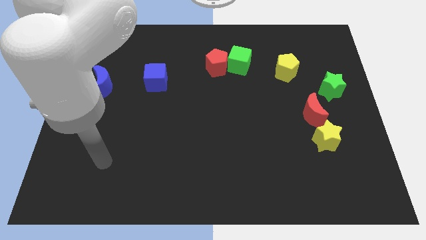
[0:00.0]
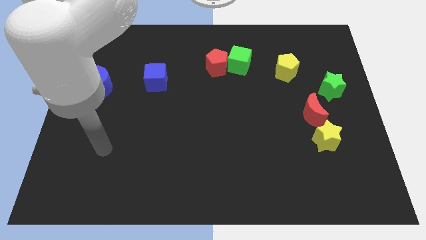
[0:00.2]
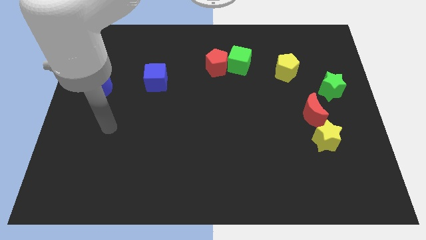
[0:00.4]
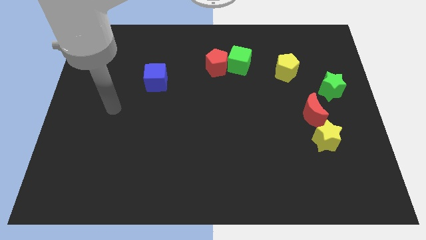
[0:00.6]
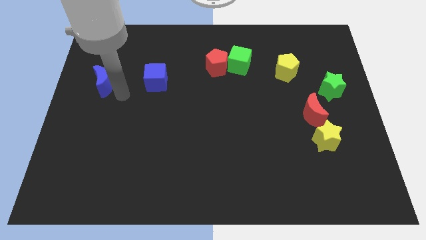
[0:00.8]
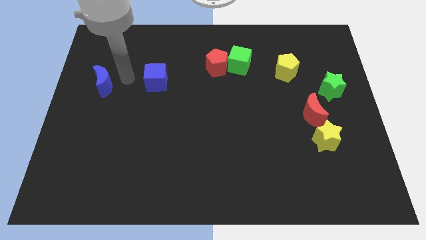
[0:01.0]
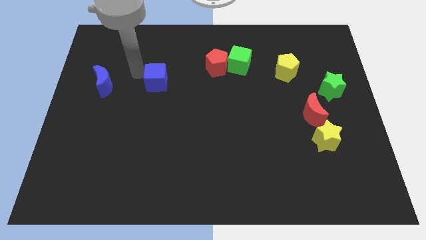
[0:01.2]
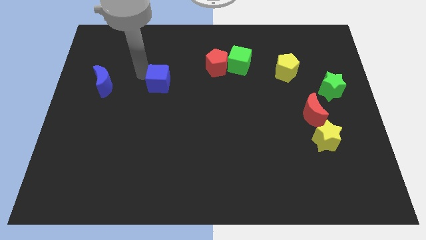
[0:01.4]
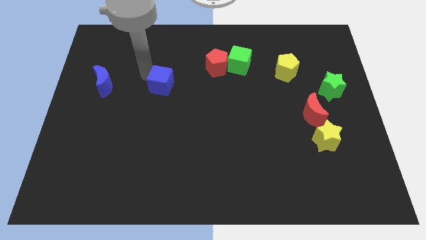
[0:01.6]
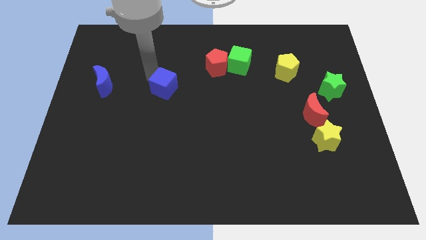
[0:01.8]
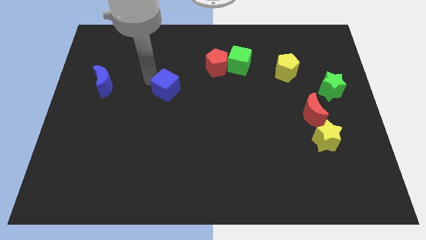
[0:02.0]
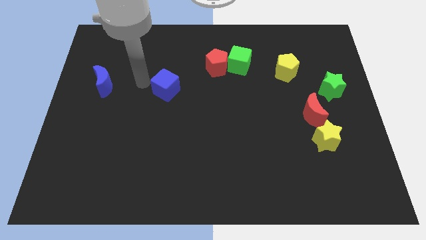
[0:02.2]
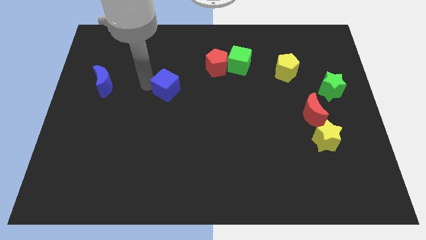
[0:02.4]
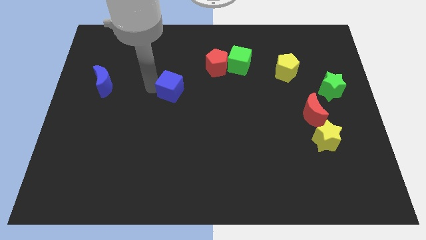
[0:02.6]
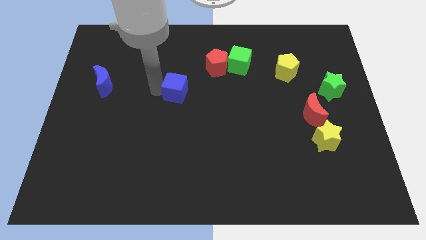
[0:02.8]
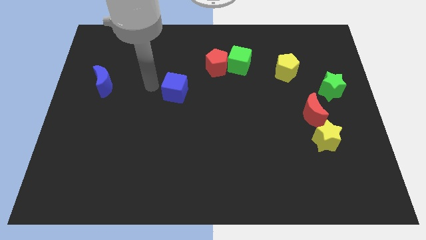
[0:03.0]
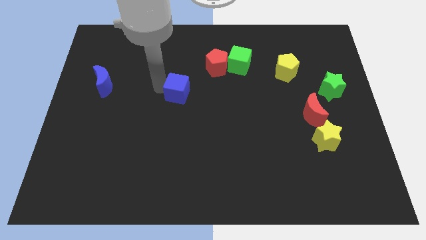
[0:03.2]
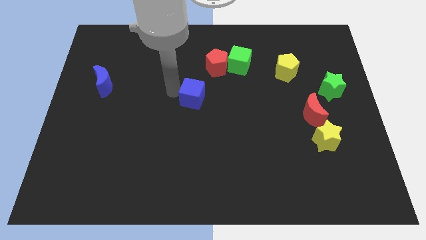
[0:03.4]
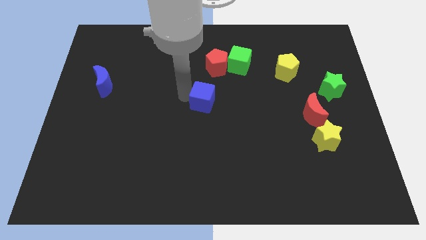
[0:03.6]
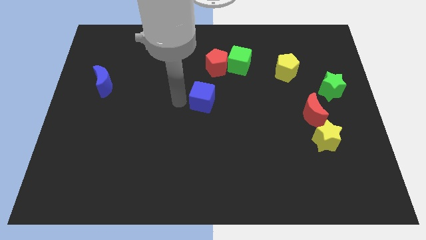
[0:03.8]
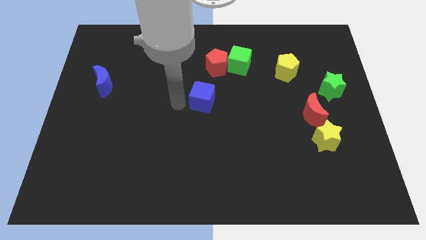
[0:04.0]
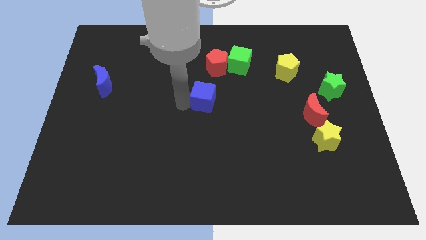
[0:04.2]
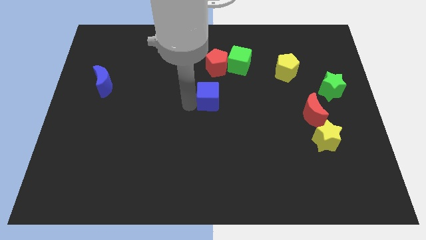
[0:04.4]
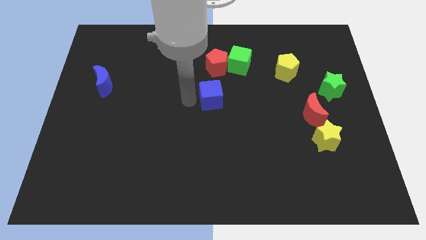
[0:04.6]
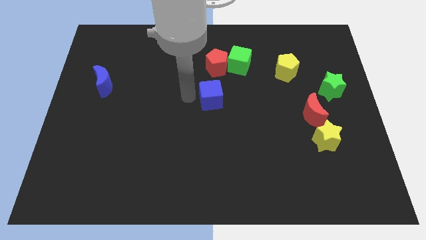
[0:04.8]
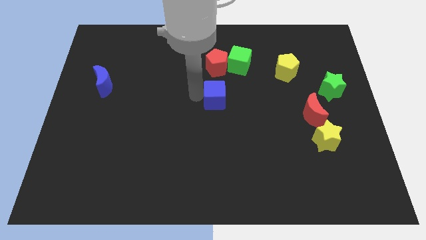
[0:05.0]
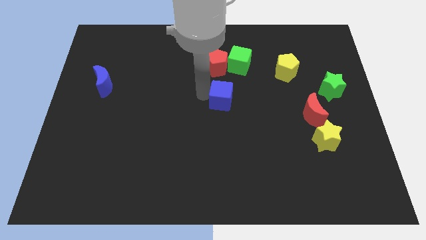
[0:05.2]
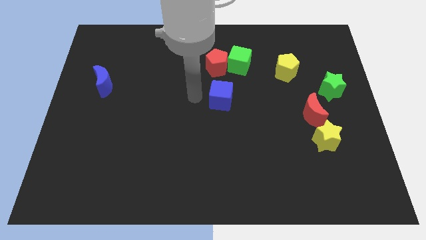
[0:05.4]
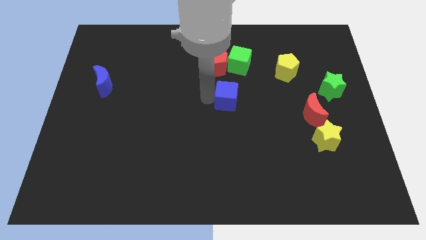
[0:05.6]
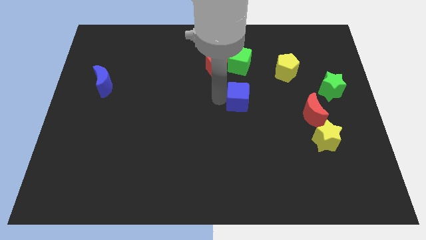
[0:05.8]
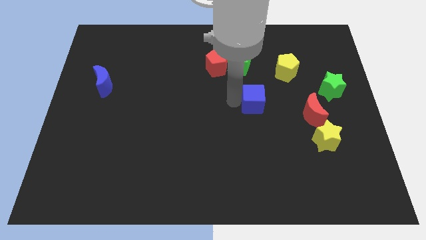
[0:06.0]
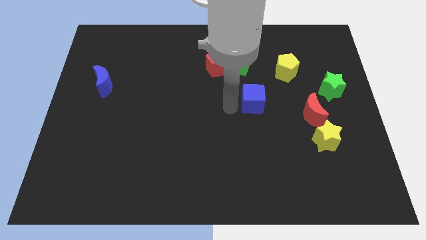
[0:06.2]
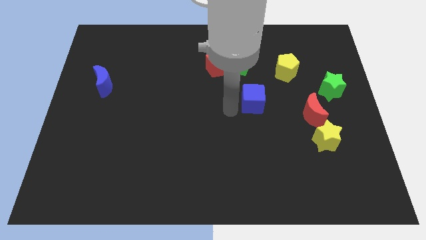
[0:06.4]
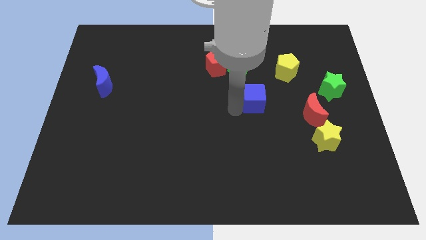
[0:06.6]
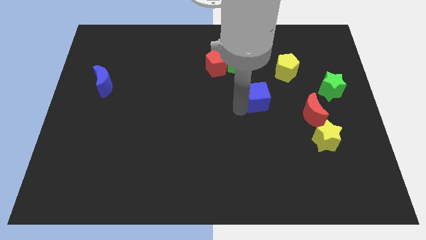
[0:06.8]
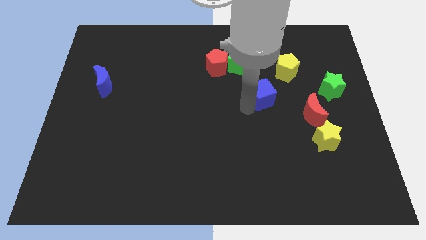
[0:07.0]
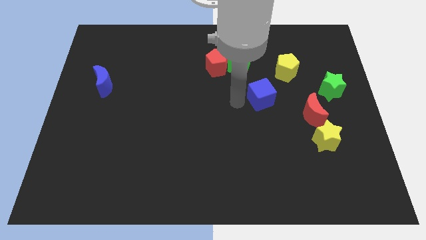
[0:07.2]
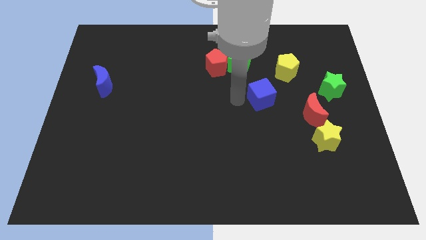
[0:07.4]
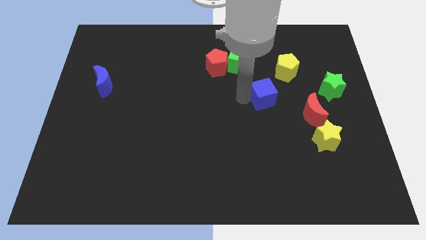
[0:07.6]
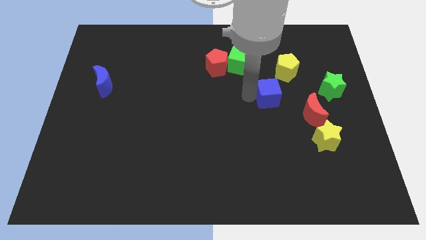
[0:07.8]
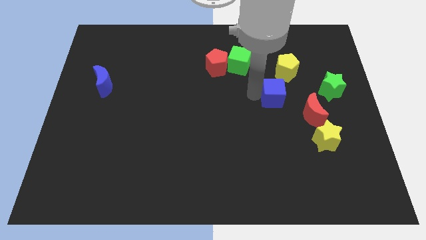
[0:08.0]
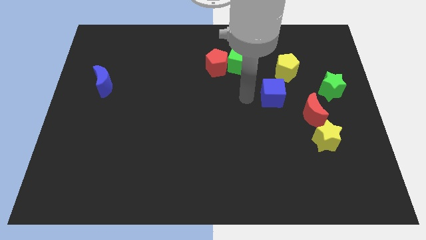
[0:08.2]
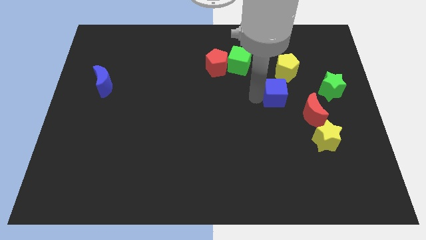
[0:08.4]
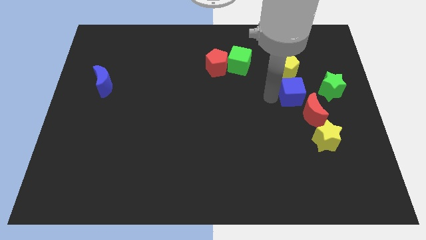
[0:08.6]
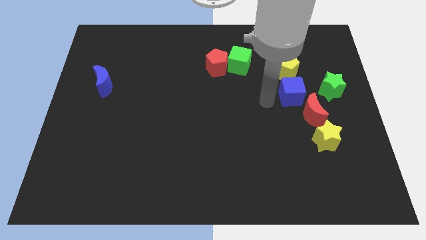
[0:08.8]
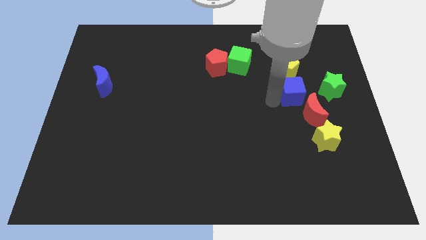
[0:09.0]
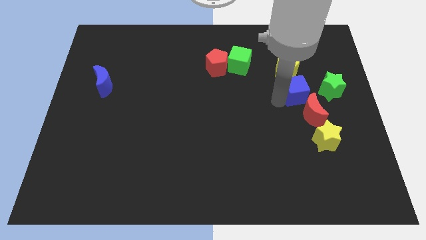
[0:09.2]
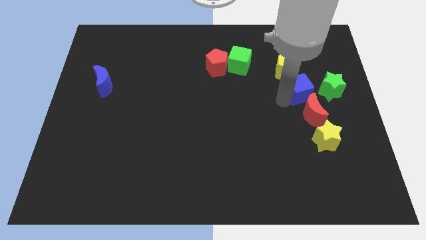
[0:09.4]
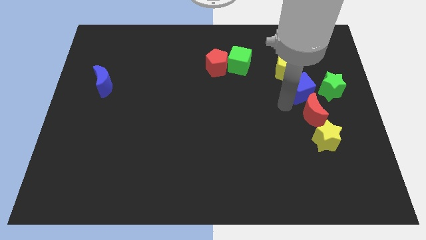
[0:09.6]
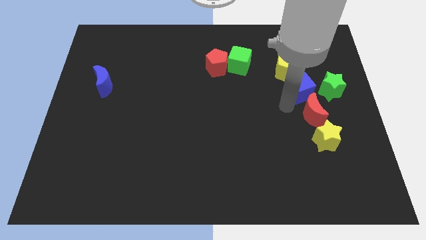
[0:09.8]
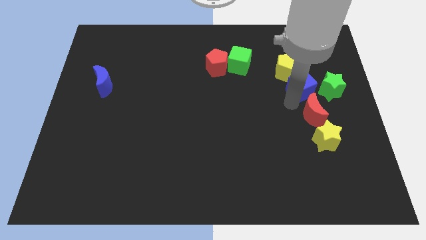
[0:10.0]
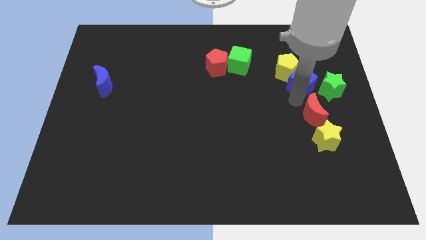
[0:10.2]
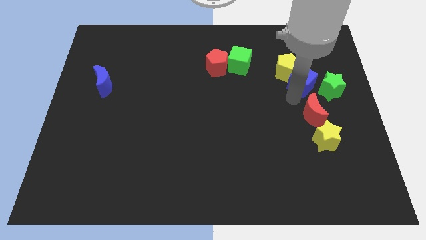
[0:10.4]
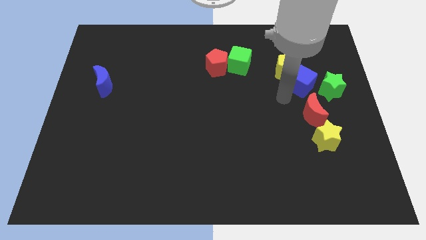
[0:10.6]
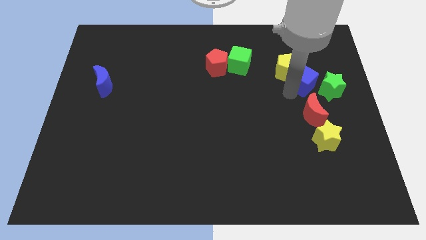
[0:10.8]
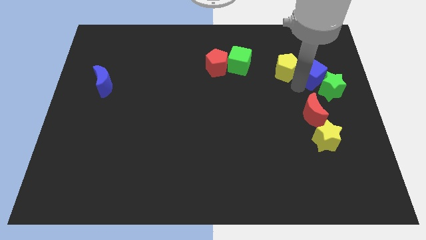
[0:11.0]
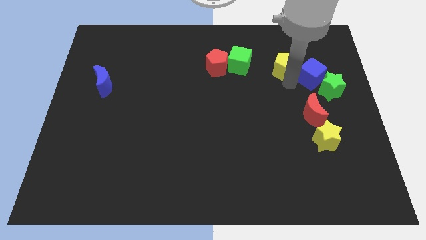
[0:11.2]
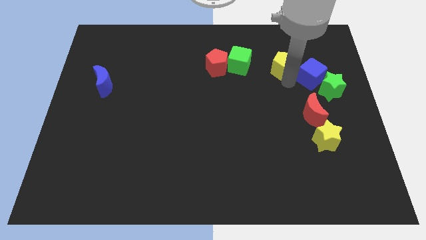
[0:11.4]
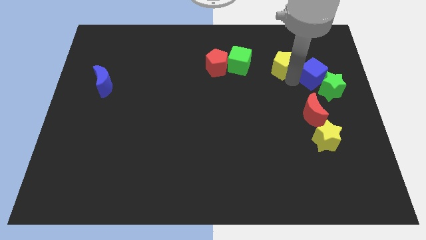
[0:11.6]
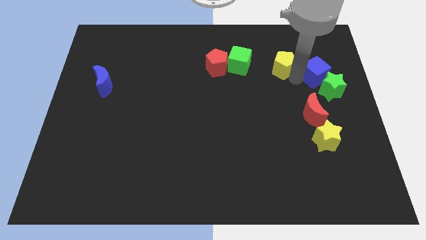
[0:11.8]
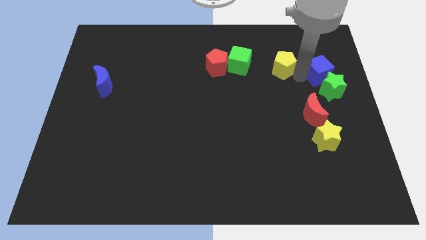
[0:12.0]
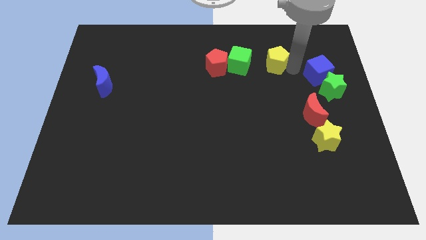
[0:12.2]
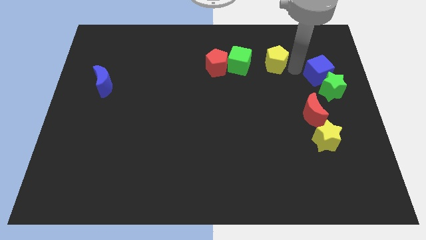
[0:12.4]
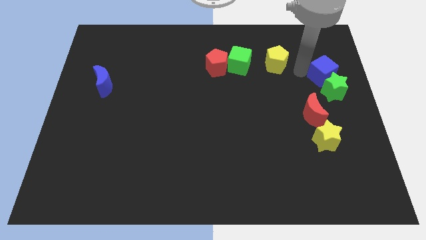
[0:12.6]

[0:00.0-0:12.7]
slide the blue cube to the right side
